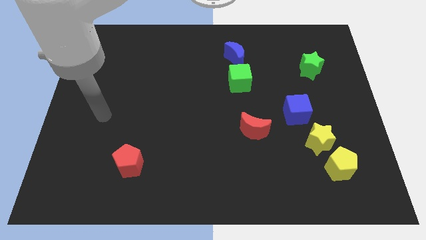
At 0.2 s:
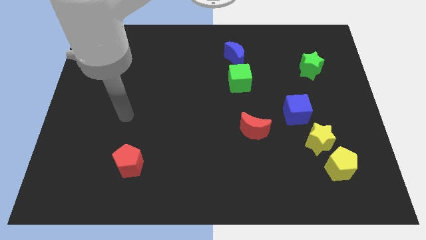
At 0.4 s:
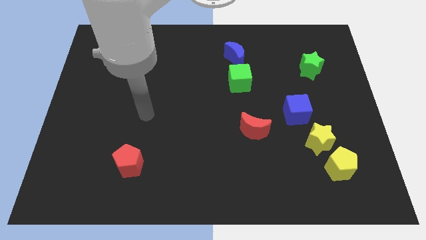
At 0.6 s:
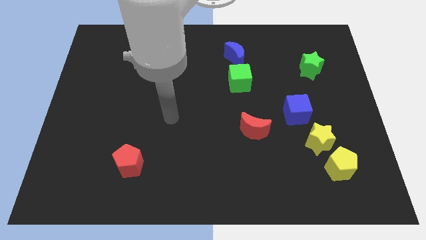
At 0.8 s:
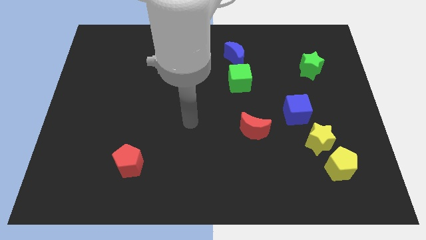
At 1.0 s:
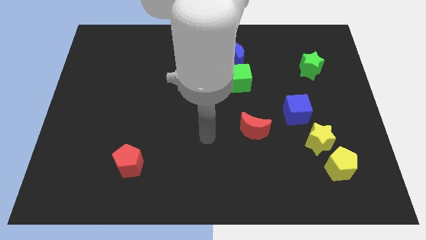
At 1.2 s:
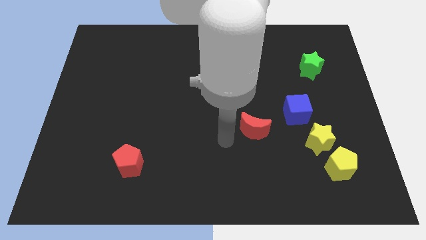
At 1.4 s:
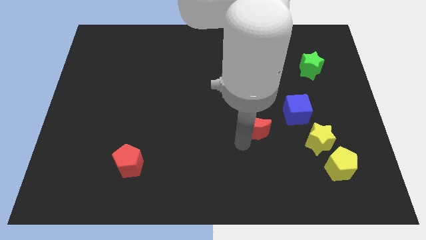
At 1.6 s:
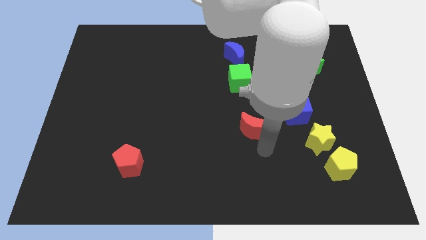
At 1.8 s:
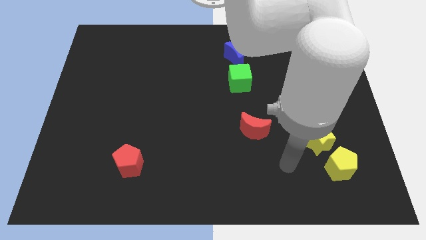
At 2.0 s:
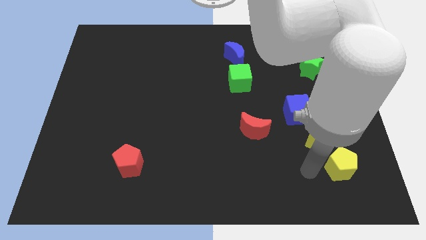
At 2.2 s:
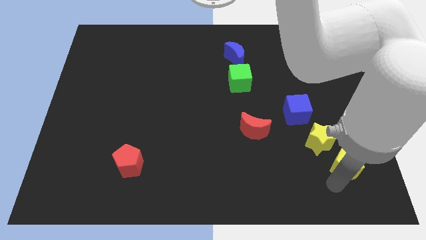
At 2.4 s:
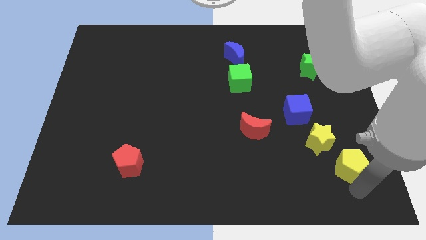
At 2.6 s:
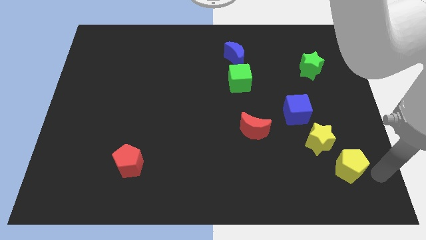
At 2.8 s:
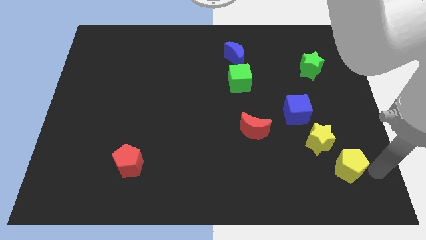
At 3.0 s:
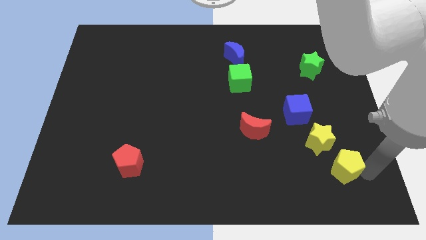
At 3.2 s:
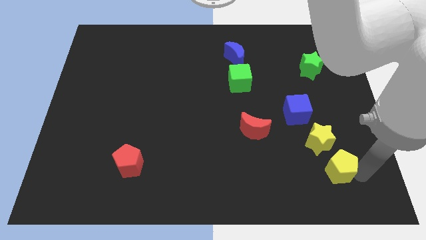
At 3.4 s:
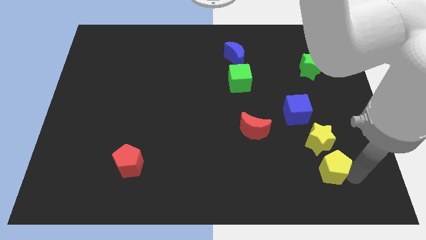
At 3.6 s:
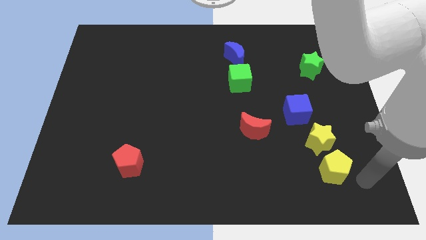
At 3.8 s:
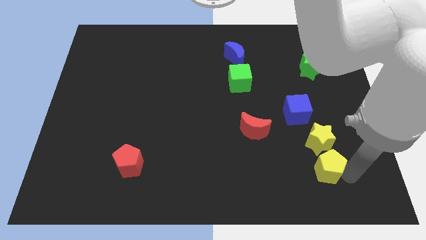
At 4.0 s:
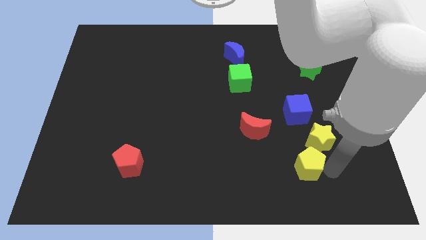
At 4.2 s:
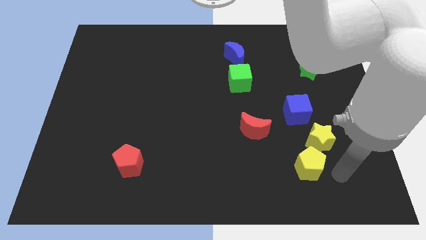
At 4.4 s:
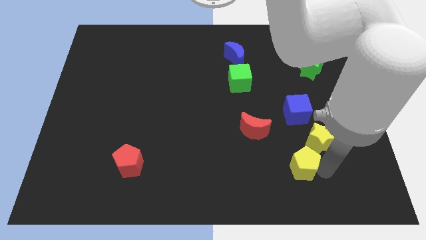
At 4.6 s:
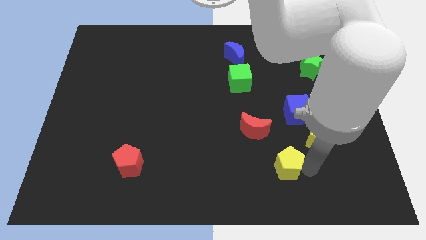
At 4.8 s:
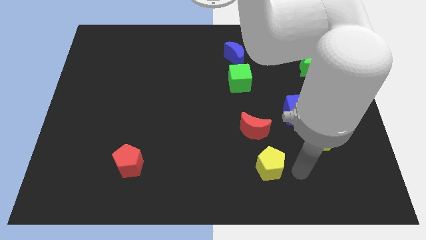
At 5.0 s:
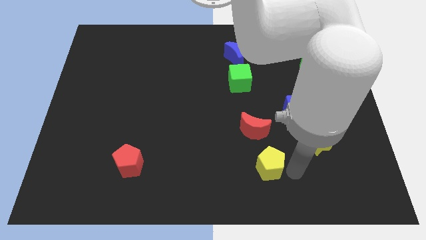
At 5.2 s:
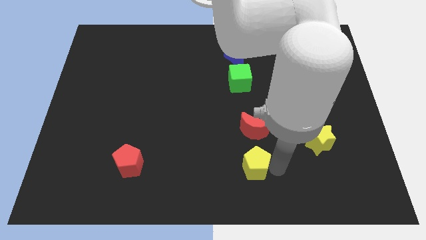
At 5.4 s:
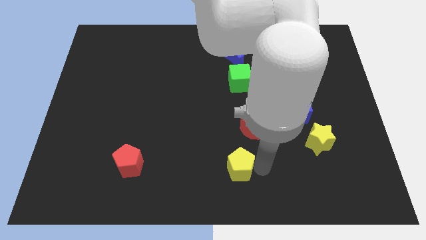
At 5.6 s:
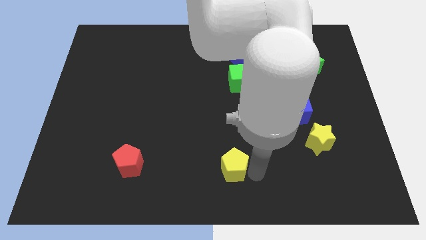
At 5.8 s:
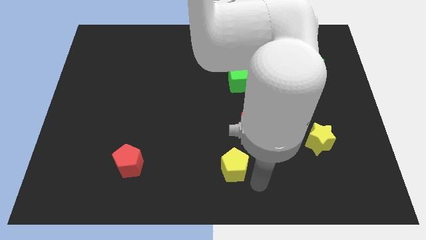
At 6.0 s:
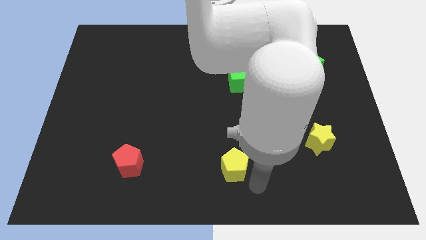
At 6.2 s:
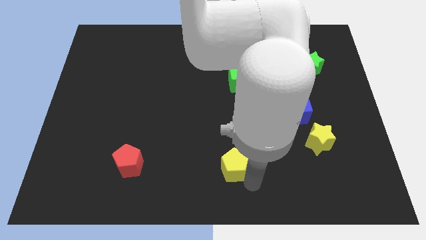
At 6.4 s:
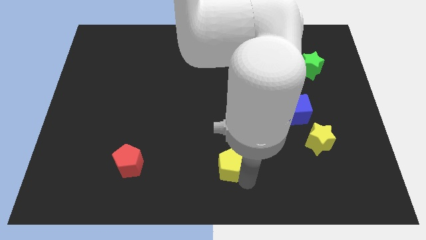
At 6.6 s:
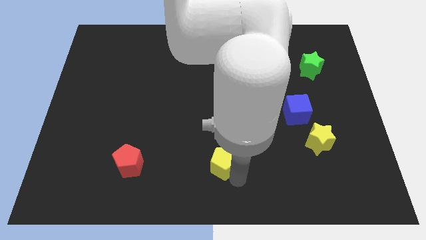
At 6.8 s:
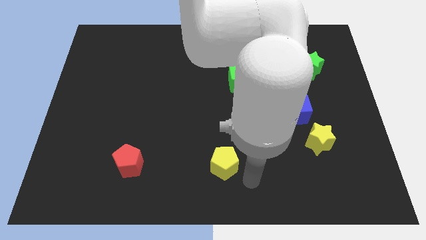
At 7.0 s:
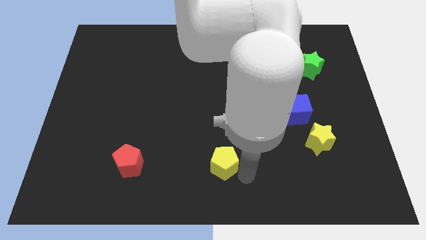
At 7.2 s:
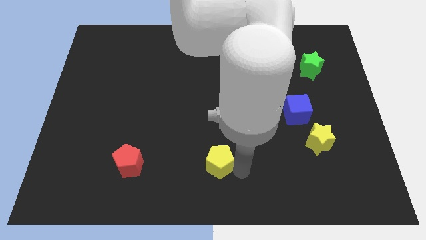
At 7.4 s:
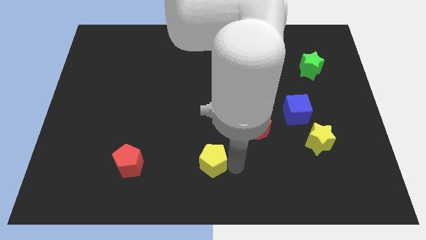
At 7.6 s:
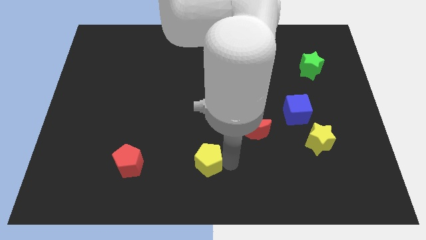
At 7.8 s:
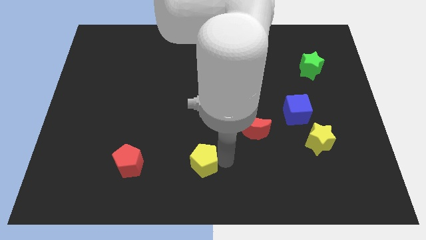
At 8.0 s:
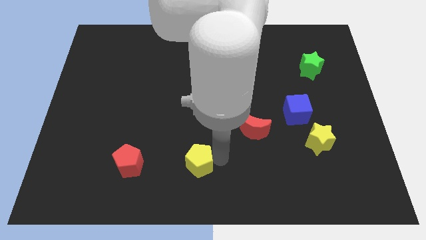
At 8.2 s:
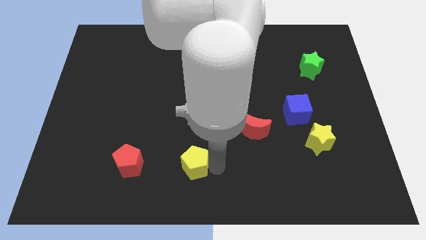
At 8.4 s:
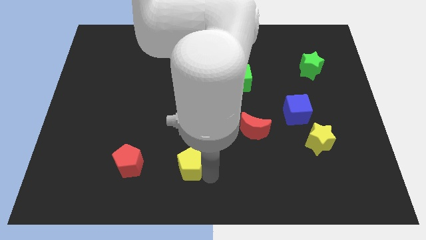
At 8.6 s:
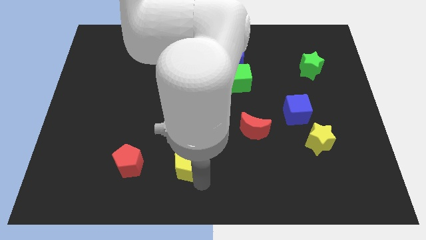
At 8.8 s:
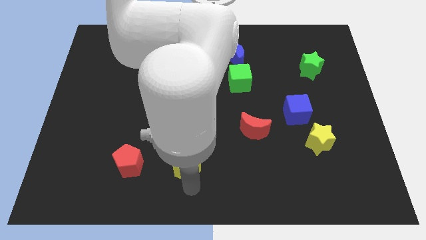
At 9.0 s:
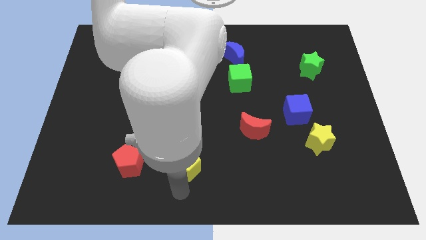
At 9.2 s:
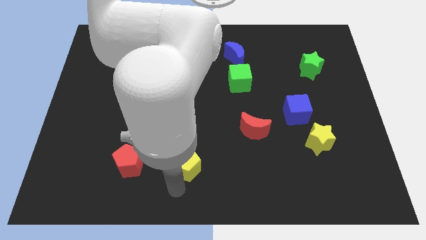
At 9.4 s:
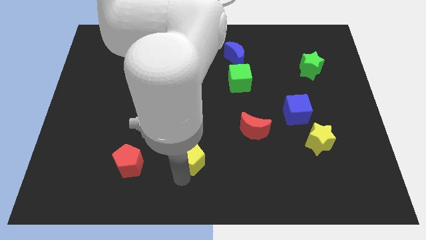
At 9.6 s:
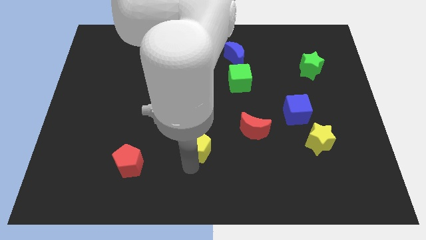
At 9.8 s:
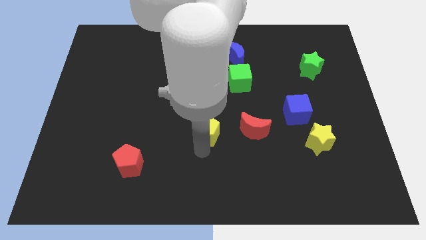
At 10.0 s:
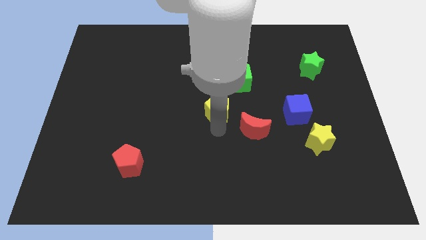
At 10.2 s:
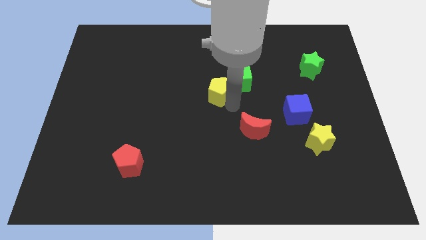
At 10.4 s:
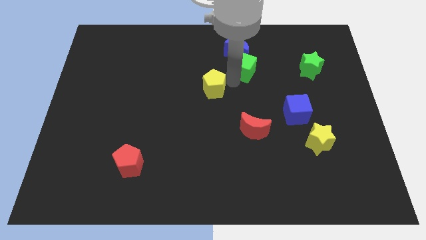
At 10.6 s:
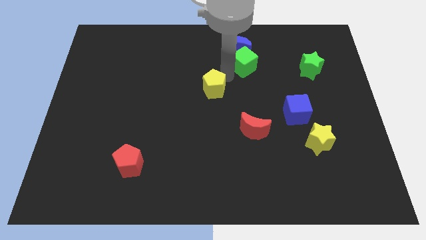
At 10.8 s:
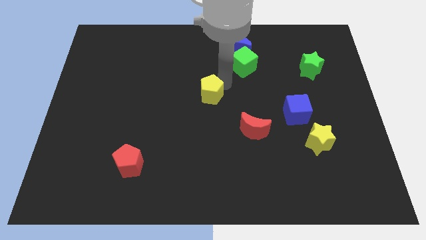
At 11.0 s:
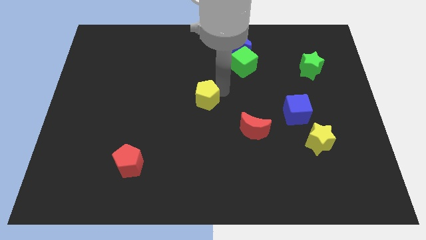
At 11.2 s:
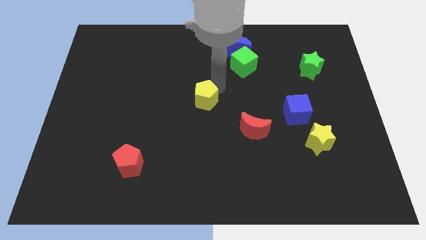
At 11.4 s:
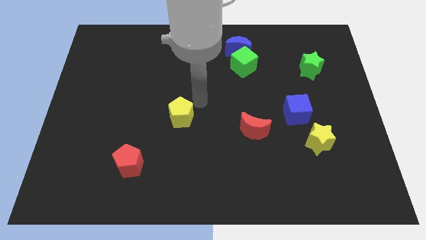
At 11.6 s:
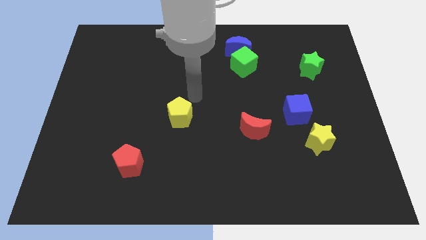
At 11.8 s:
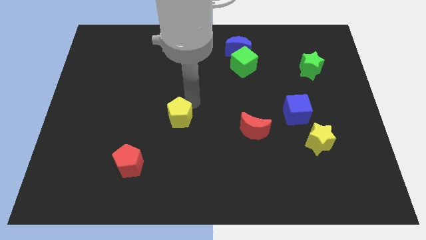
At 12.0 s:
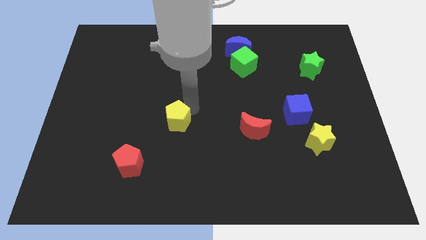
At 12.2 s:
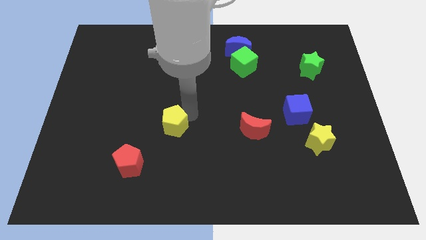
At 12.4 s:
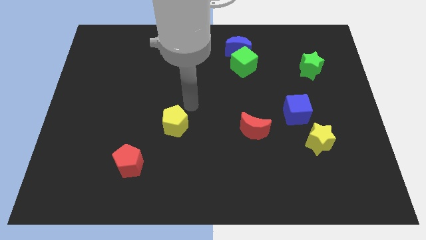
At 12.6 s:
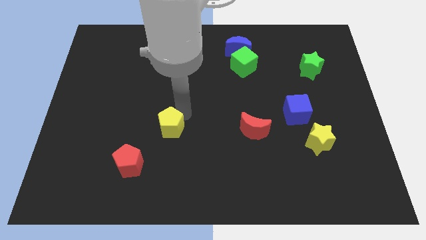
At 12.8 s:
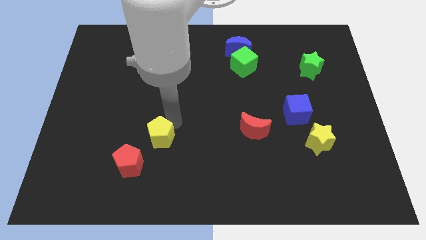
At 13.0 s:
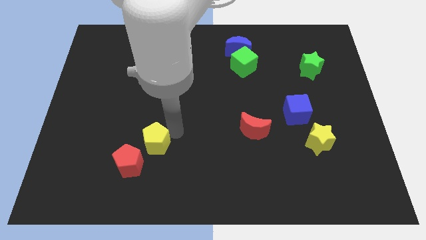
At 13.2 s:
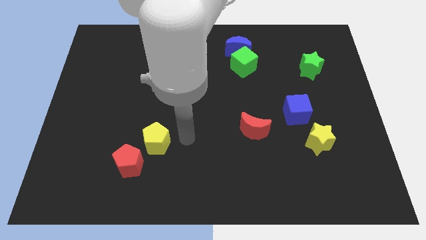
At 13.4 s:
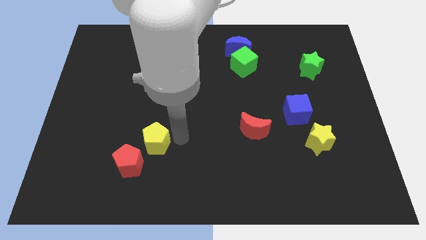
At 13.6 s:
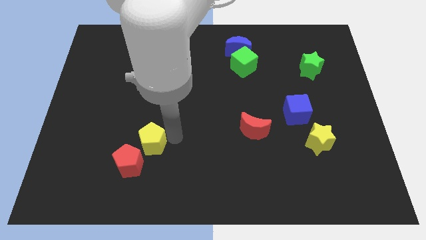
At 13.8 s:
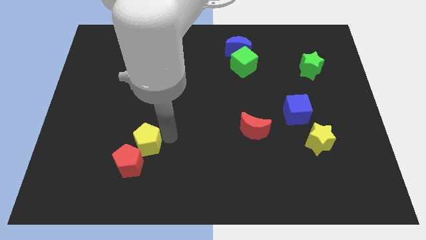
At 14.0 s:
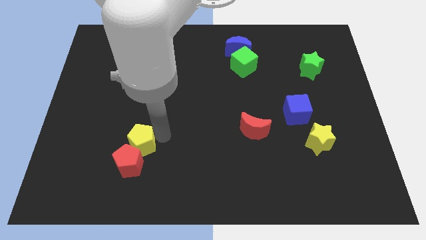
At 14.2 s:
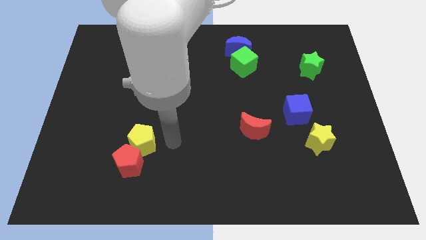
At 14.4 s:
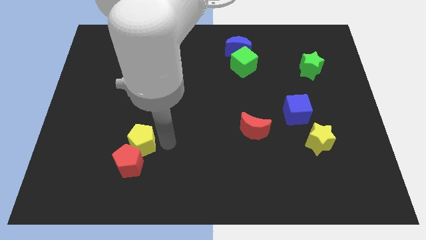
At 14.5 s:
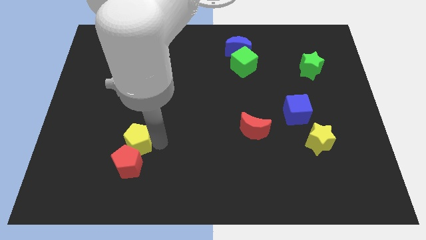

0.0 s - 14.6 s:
push the yellow pentagon diagonally up and to the left of the red pentagon

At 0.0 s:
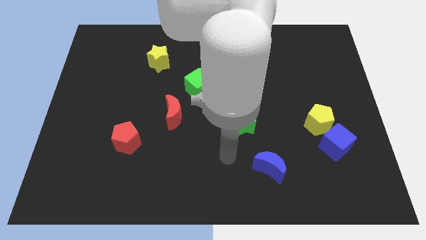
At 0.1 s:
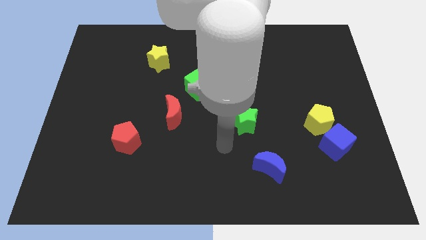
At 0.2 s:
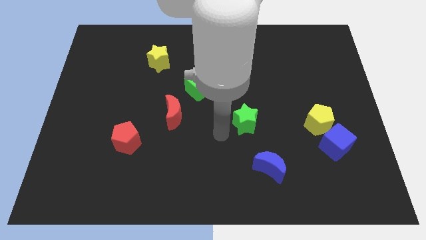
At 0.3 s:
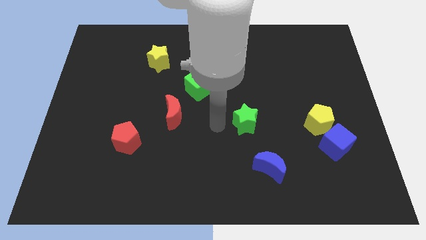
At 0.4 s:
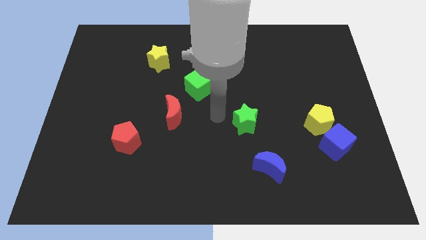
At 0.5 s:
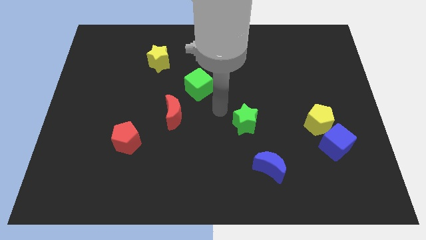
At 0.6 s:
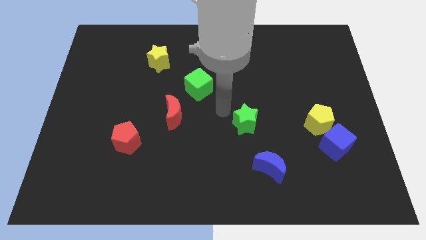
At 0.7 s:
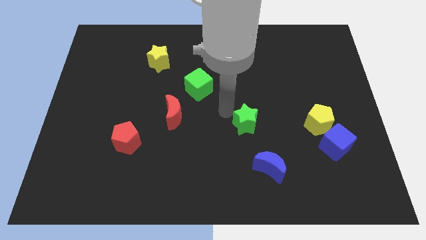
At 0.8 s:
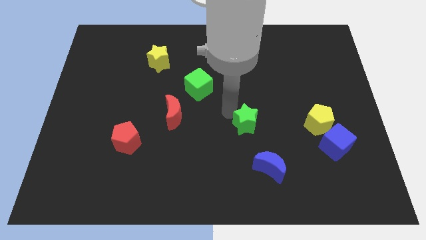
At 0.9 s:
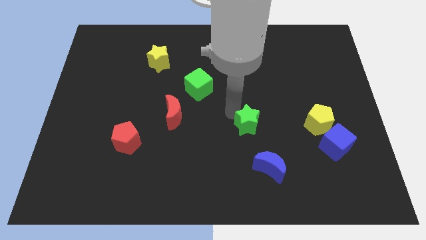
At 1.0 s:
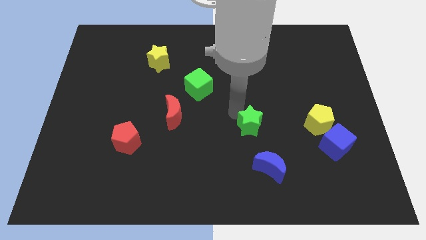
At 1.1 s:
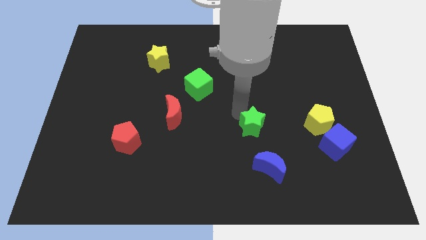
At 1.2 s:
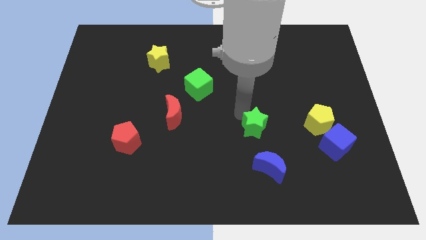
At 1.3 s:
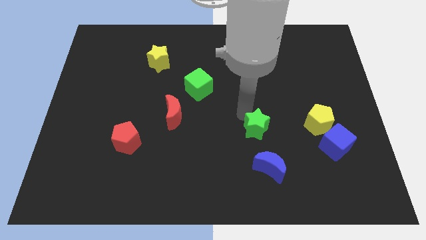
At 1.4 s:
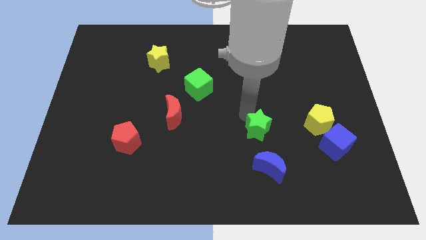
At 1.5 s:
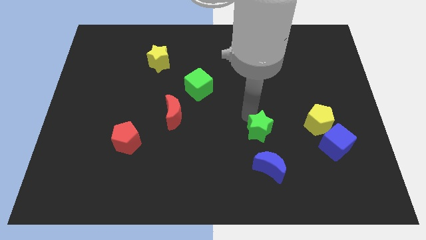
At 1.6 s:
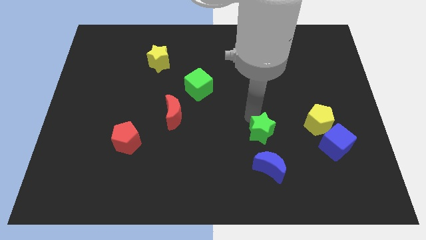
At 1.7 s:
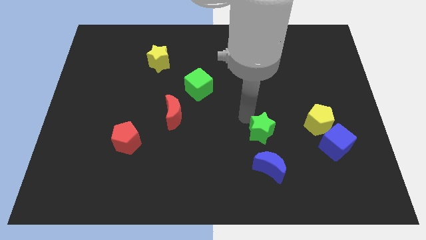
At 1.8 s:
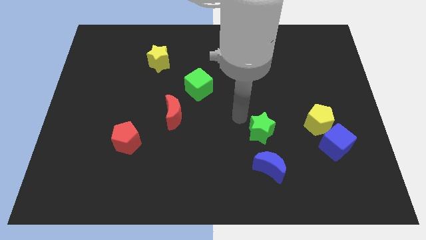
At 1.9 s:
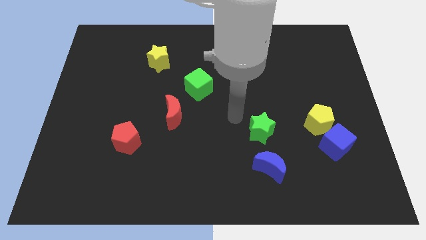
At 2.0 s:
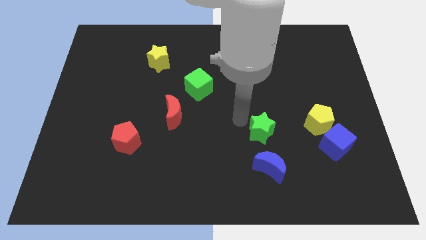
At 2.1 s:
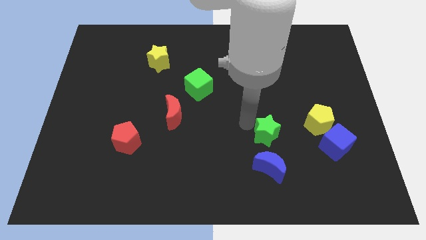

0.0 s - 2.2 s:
push the green star to the left side of the blue cube
